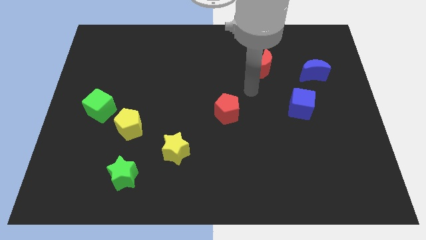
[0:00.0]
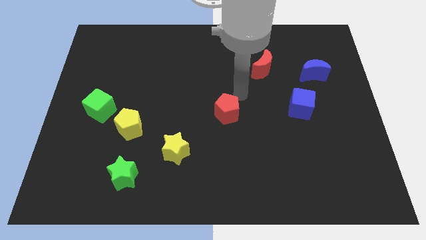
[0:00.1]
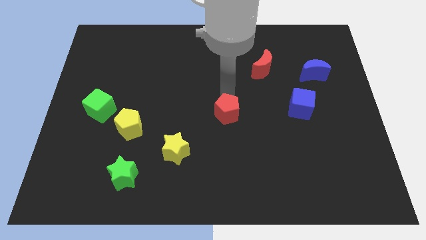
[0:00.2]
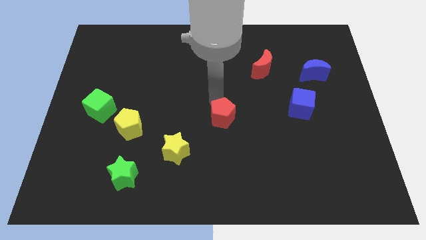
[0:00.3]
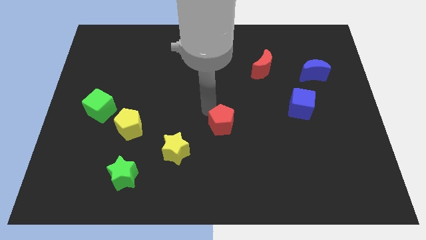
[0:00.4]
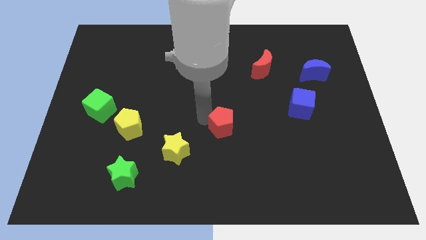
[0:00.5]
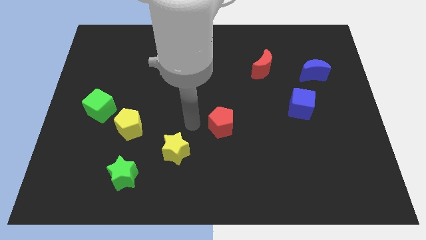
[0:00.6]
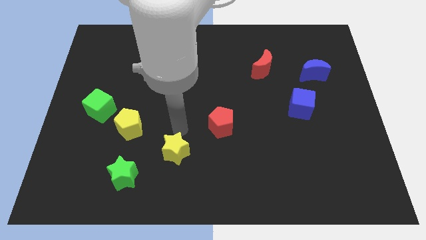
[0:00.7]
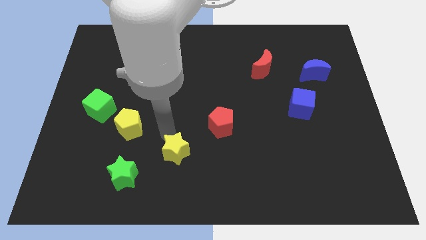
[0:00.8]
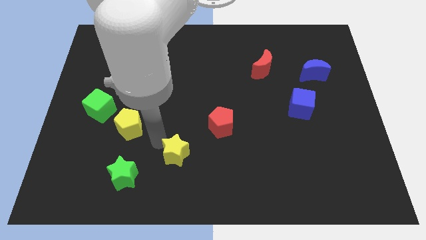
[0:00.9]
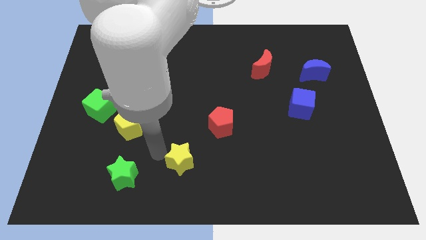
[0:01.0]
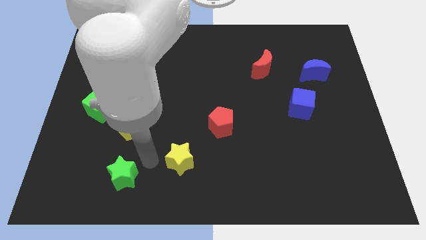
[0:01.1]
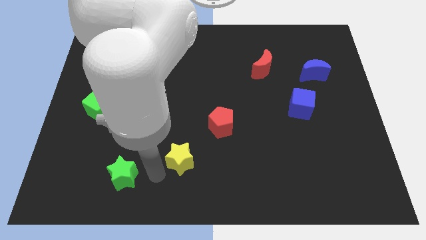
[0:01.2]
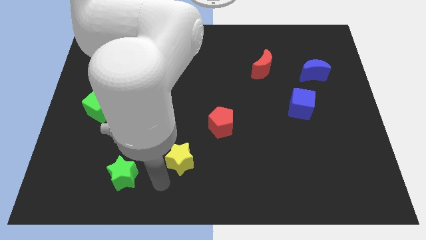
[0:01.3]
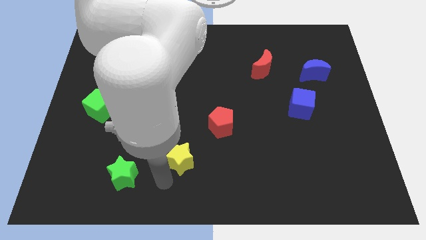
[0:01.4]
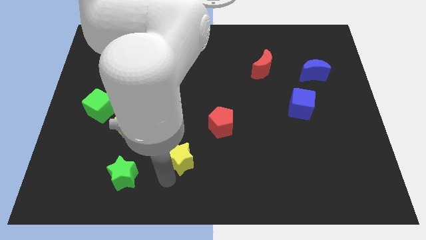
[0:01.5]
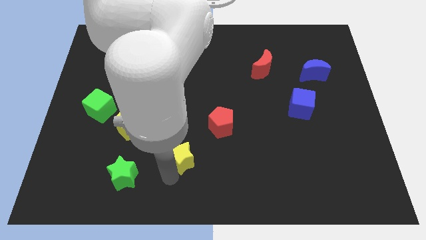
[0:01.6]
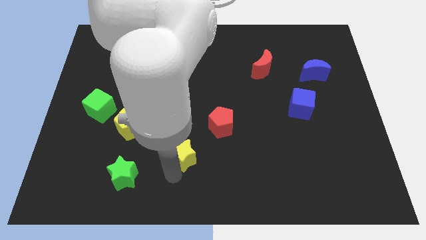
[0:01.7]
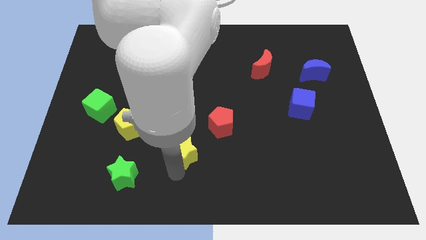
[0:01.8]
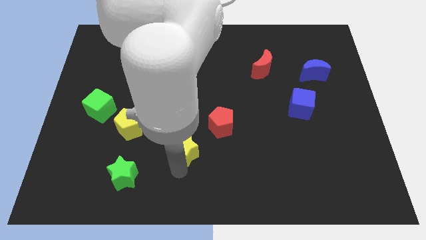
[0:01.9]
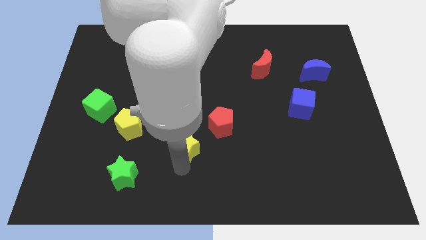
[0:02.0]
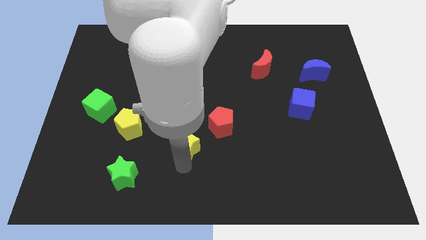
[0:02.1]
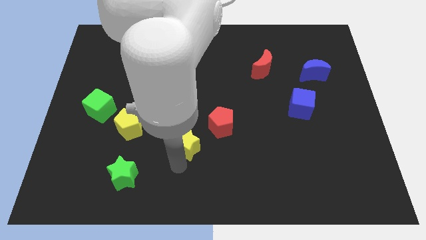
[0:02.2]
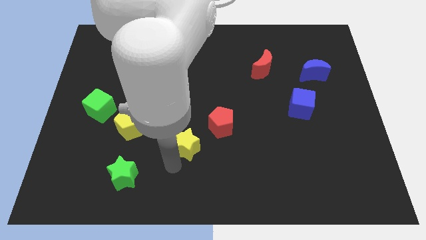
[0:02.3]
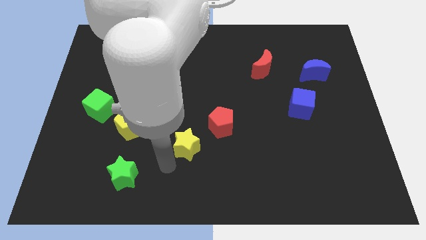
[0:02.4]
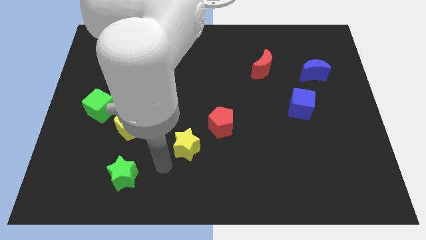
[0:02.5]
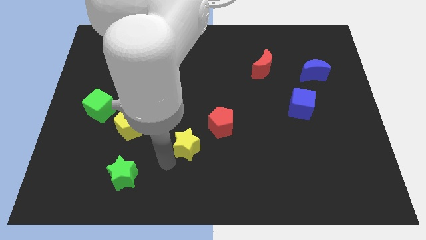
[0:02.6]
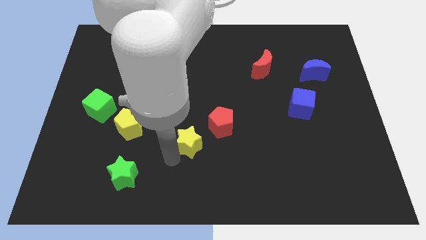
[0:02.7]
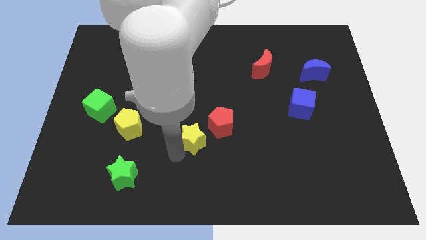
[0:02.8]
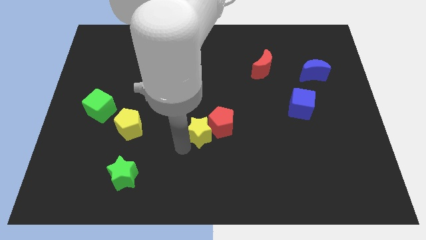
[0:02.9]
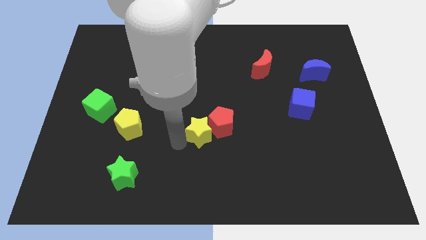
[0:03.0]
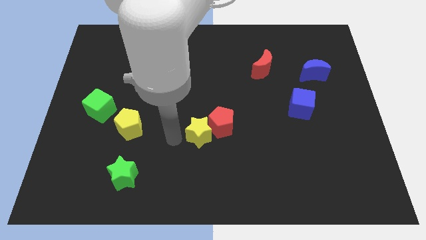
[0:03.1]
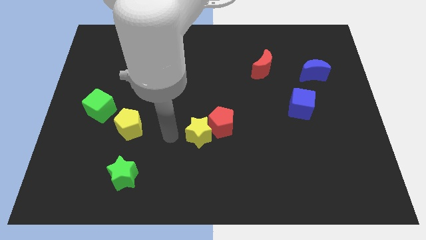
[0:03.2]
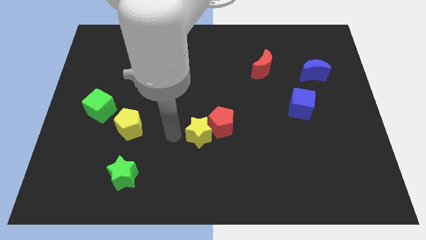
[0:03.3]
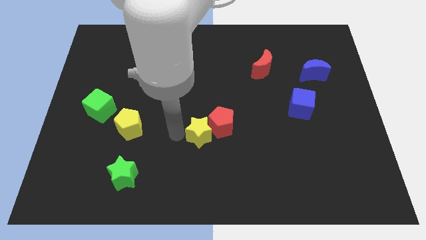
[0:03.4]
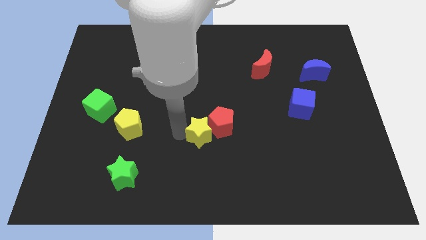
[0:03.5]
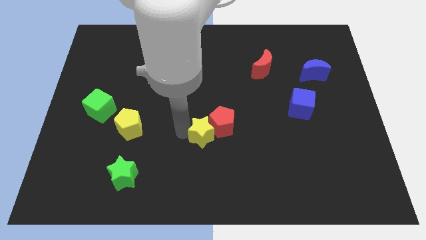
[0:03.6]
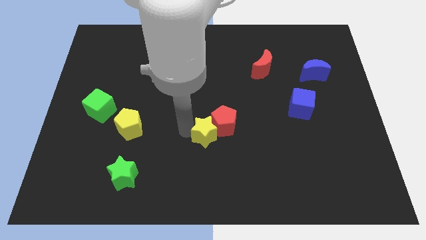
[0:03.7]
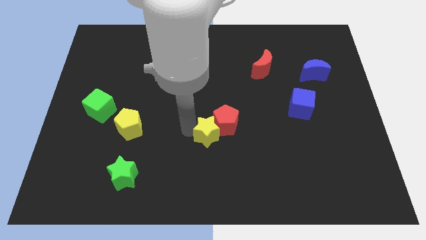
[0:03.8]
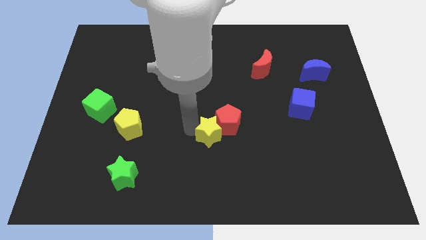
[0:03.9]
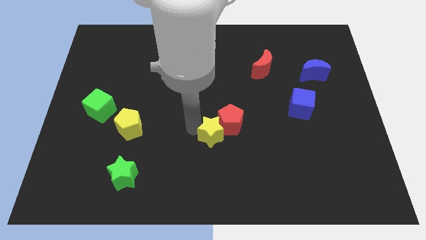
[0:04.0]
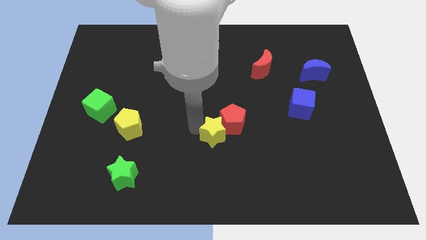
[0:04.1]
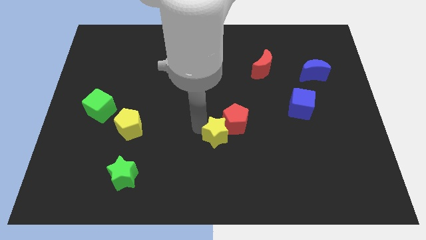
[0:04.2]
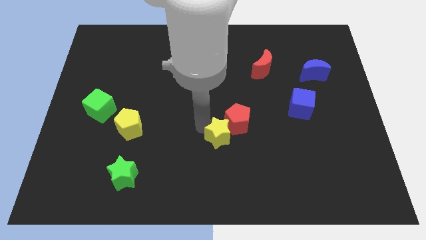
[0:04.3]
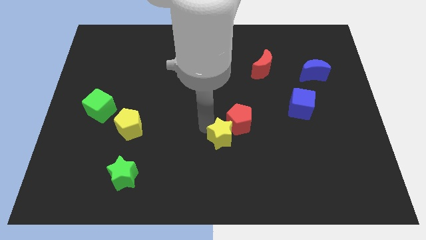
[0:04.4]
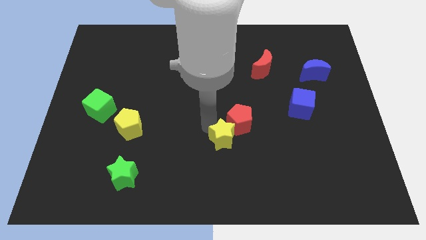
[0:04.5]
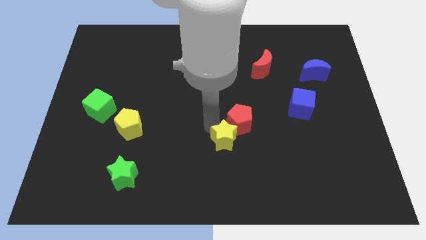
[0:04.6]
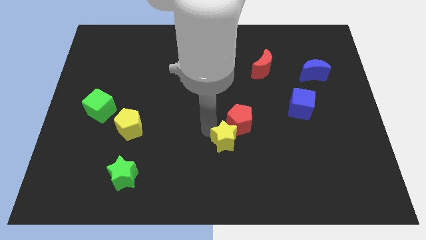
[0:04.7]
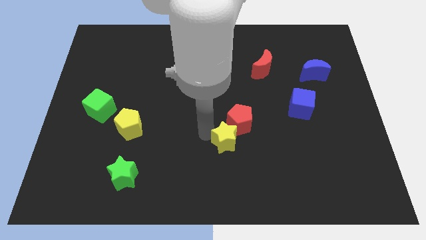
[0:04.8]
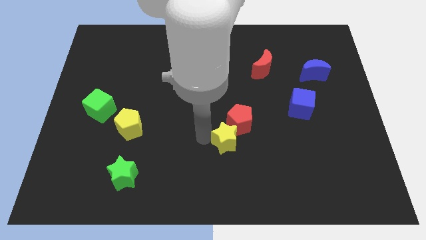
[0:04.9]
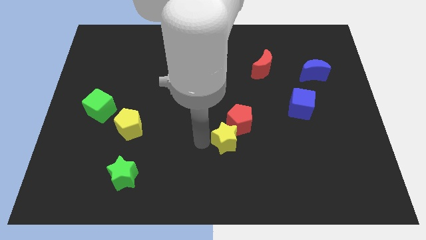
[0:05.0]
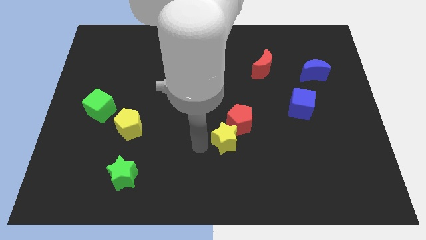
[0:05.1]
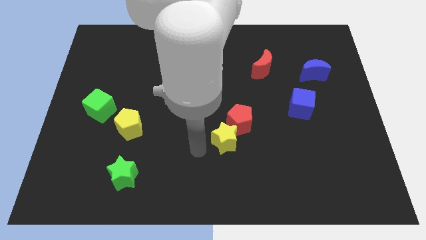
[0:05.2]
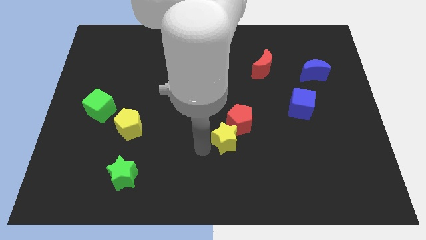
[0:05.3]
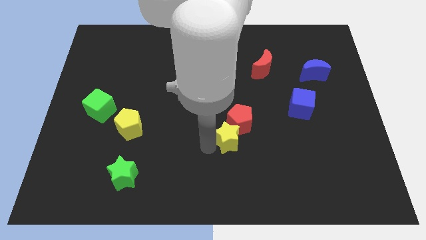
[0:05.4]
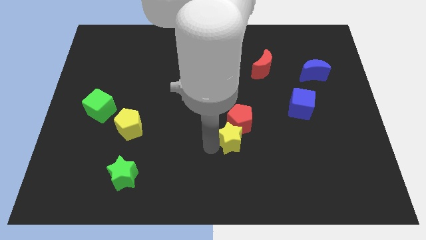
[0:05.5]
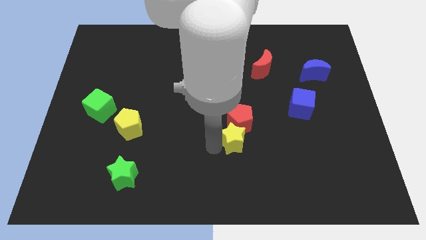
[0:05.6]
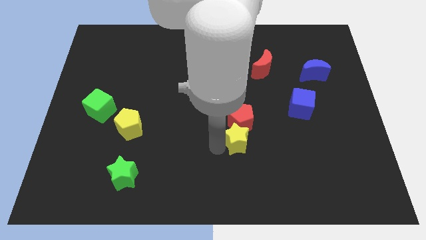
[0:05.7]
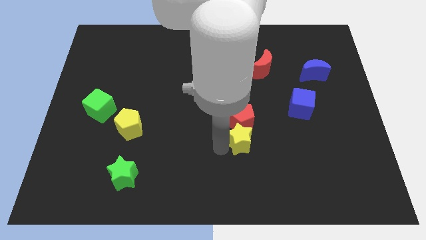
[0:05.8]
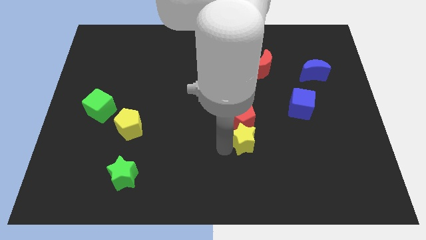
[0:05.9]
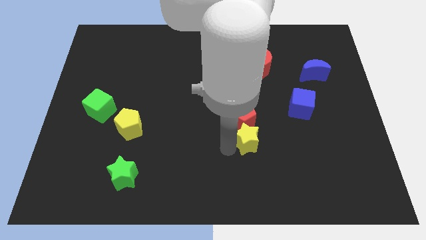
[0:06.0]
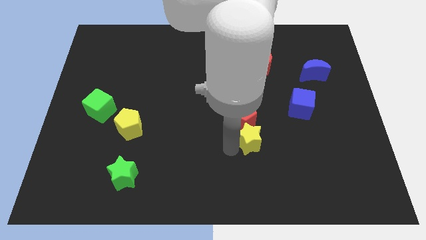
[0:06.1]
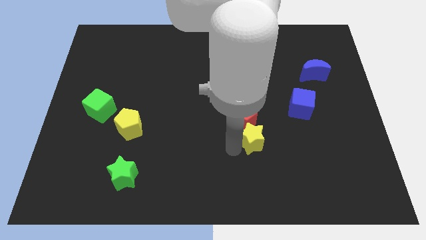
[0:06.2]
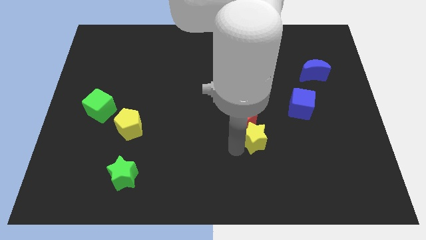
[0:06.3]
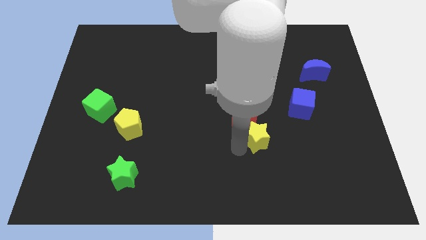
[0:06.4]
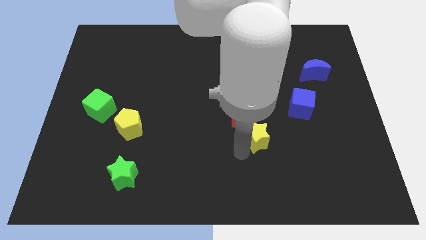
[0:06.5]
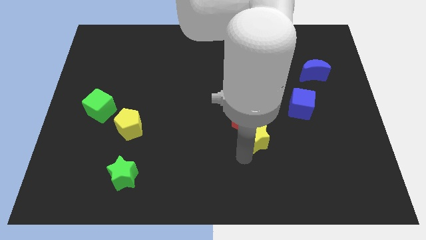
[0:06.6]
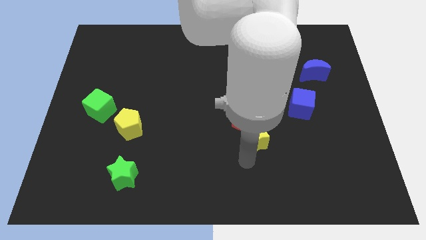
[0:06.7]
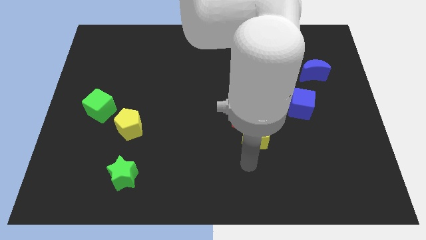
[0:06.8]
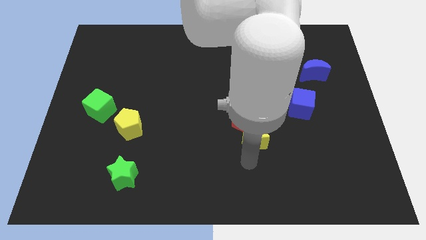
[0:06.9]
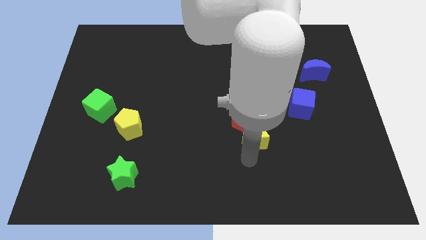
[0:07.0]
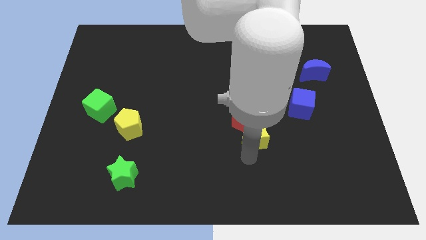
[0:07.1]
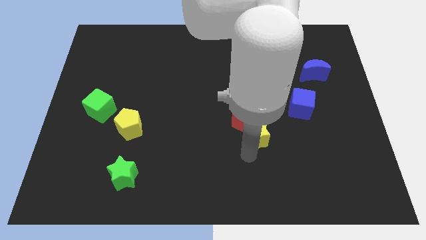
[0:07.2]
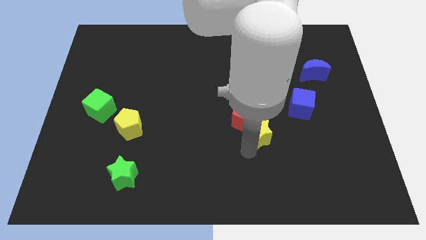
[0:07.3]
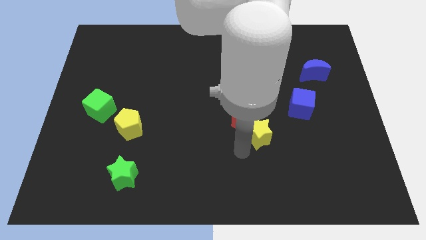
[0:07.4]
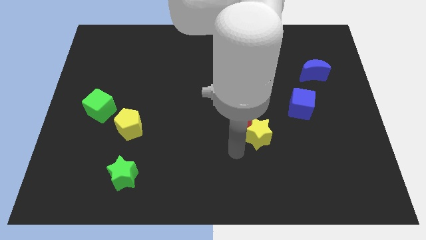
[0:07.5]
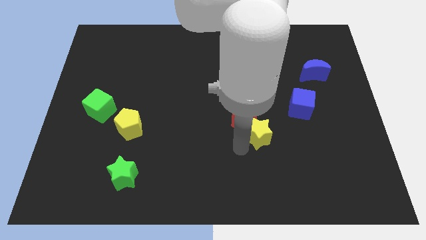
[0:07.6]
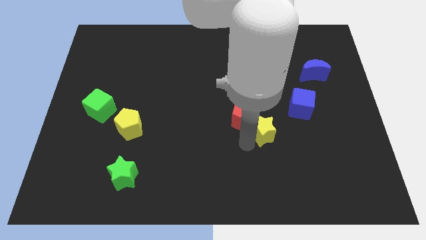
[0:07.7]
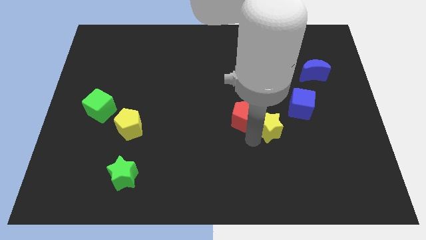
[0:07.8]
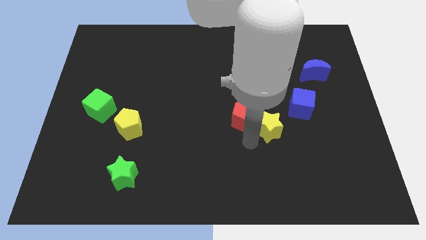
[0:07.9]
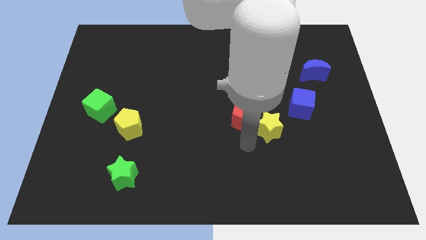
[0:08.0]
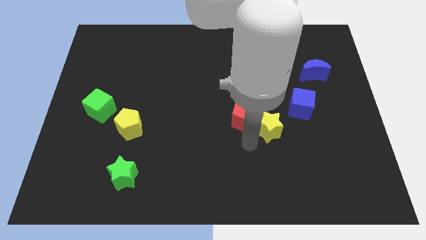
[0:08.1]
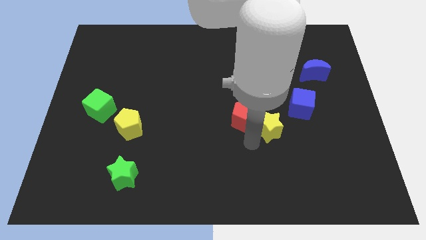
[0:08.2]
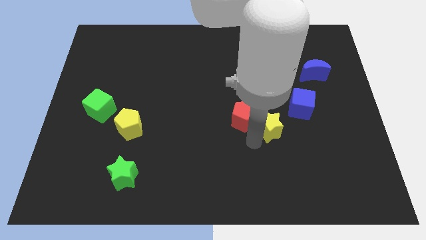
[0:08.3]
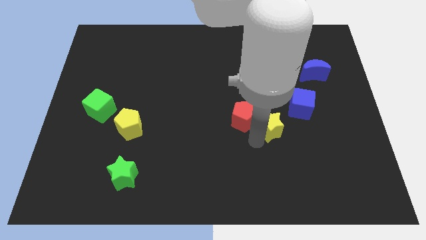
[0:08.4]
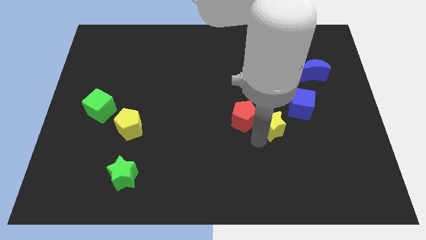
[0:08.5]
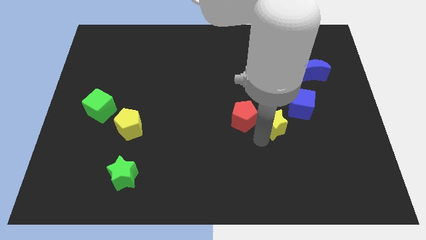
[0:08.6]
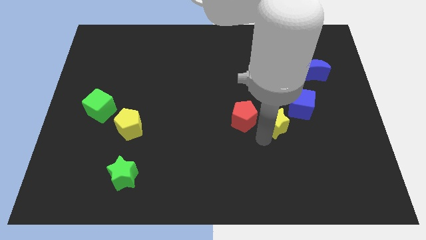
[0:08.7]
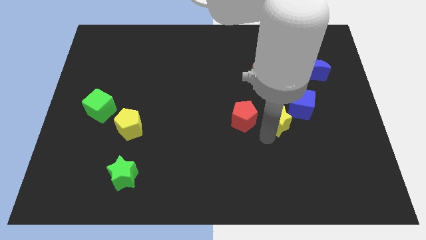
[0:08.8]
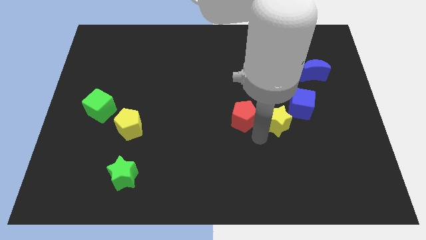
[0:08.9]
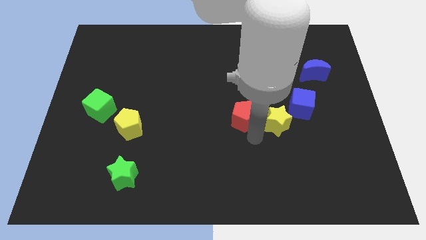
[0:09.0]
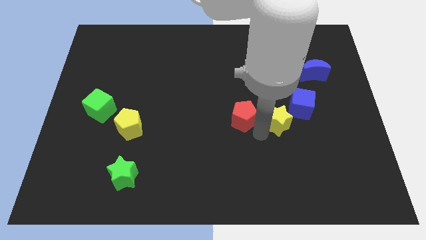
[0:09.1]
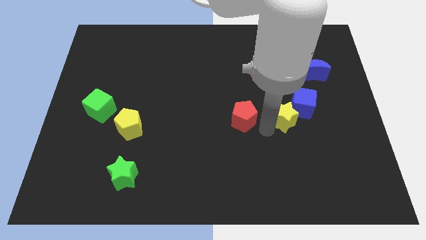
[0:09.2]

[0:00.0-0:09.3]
put the yellow star next to the blue cube
